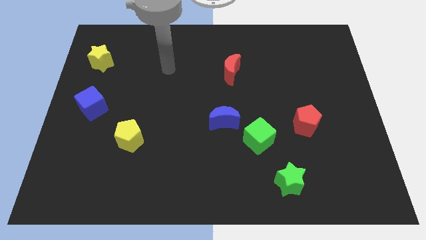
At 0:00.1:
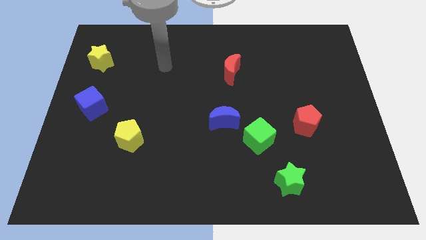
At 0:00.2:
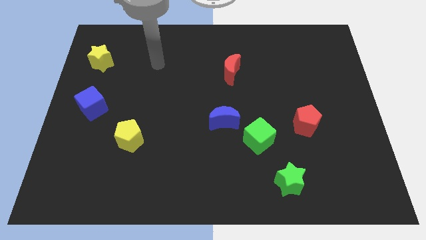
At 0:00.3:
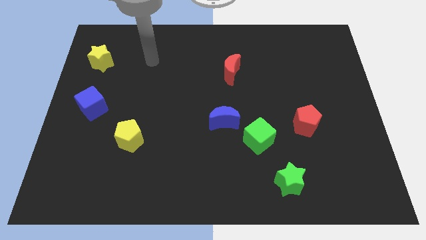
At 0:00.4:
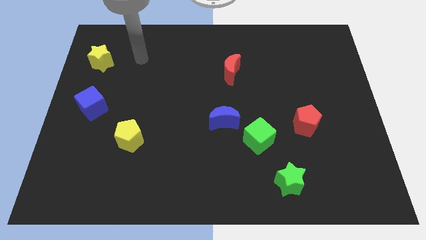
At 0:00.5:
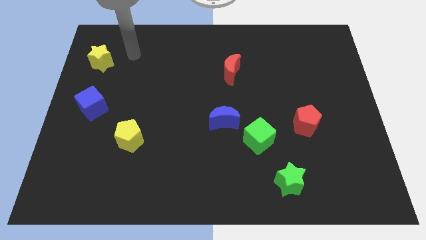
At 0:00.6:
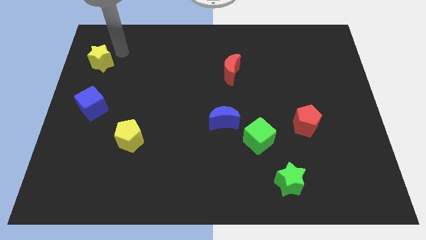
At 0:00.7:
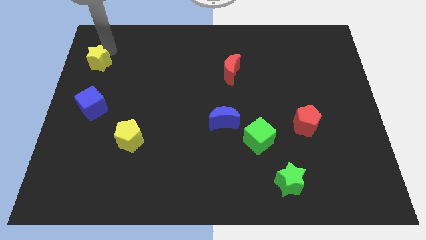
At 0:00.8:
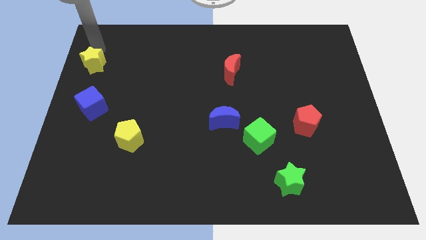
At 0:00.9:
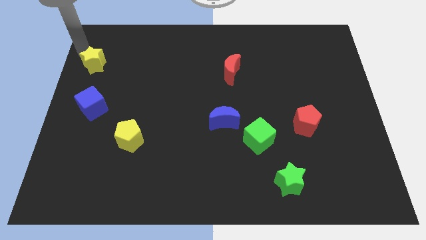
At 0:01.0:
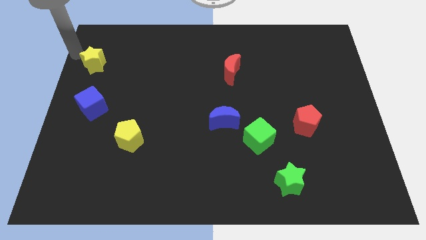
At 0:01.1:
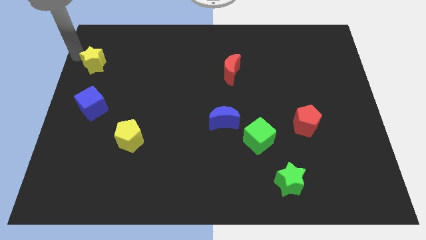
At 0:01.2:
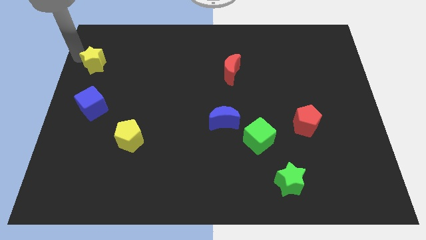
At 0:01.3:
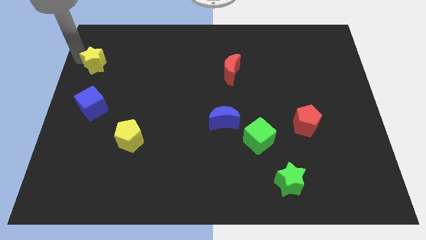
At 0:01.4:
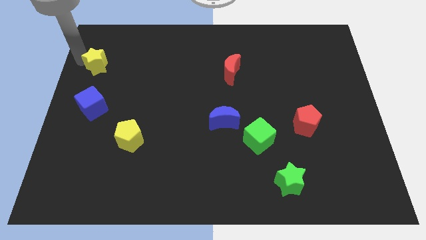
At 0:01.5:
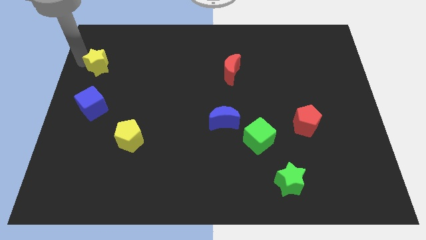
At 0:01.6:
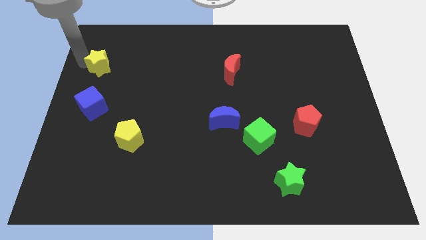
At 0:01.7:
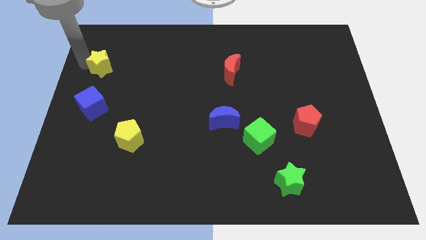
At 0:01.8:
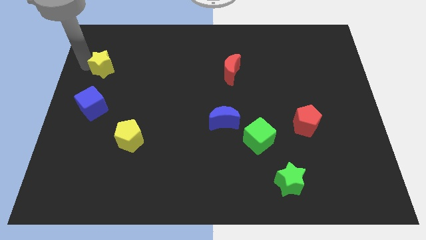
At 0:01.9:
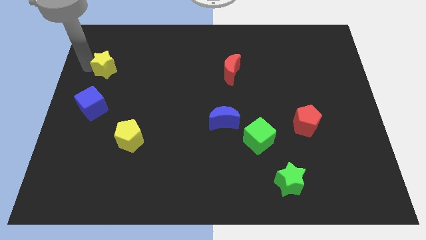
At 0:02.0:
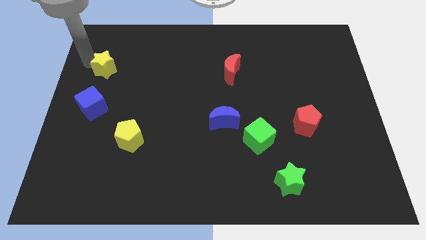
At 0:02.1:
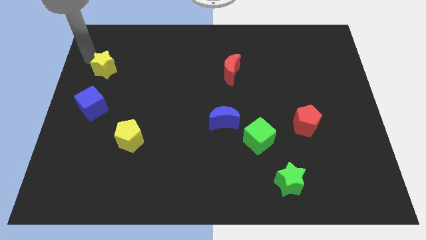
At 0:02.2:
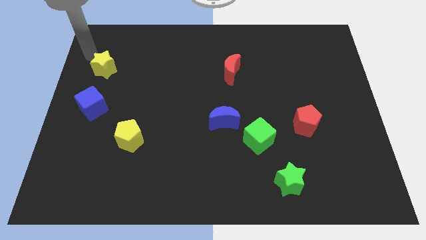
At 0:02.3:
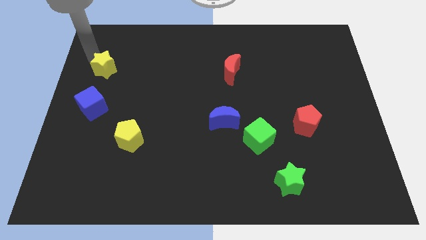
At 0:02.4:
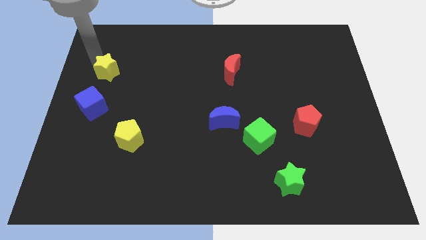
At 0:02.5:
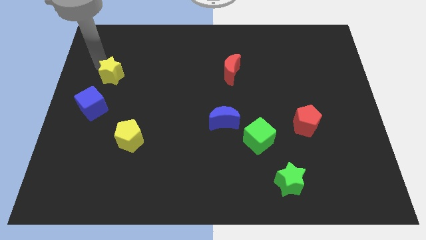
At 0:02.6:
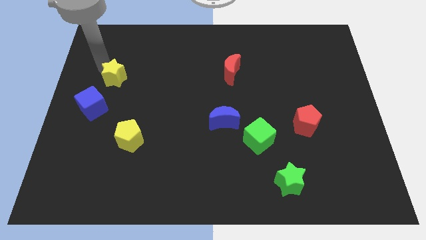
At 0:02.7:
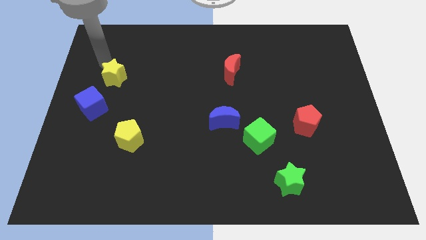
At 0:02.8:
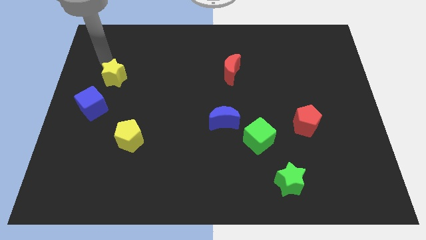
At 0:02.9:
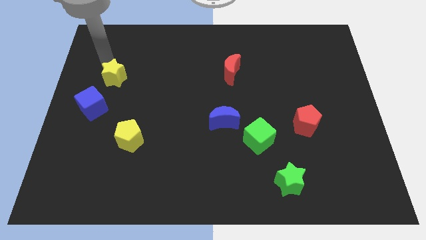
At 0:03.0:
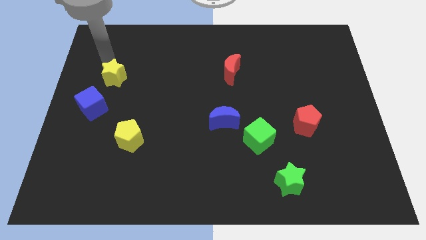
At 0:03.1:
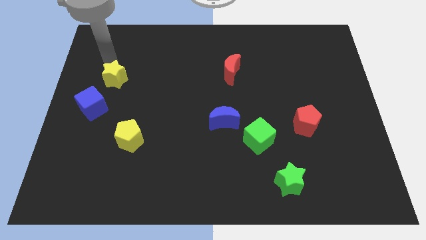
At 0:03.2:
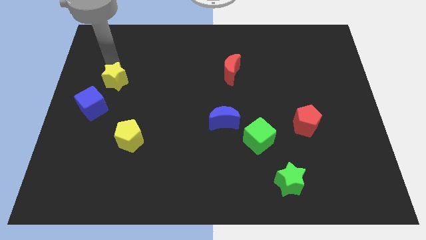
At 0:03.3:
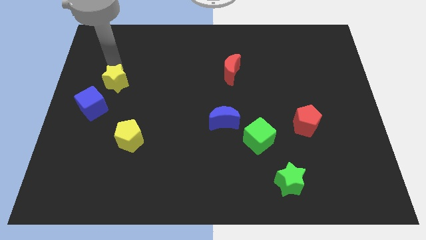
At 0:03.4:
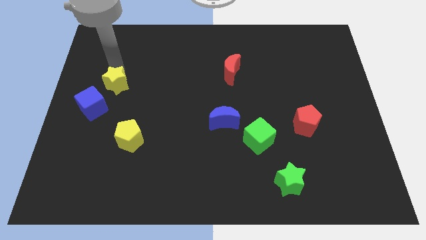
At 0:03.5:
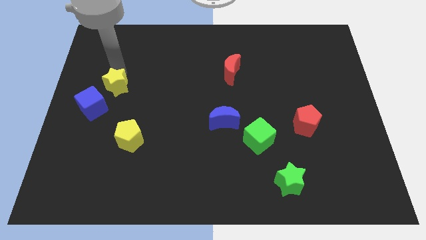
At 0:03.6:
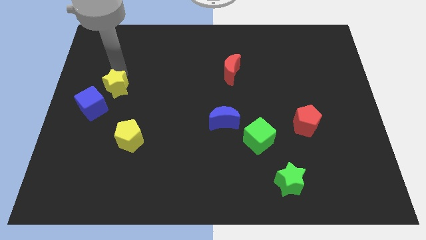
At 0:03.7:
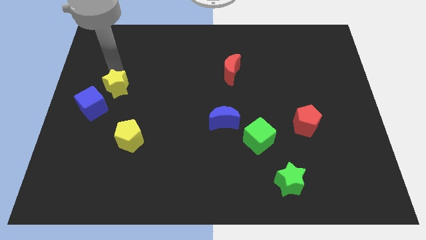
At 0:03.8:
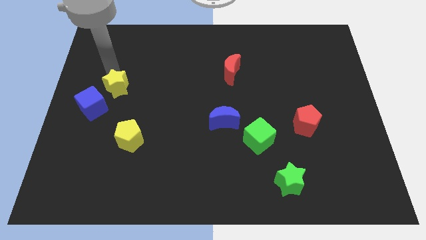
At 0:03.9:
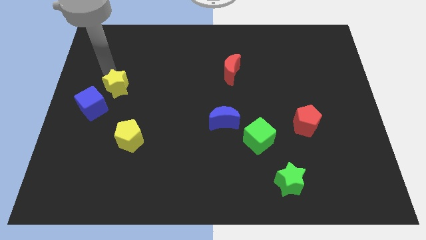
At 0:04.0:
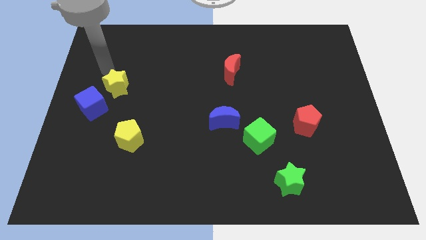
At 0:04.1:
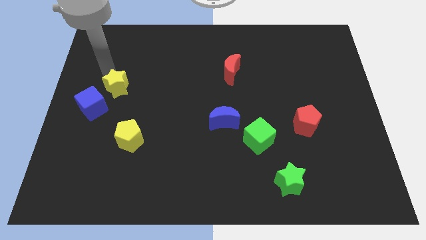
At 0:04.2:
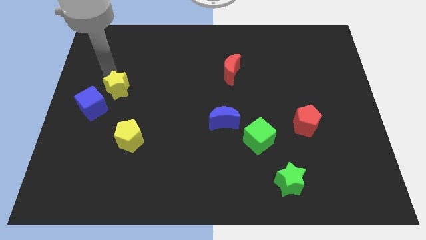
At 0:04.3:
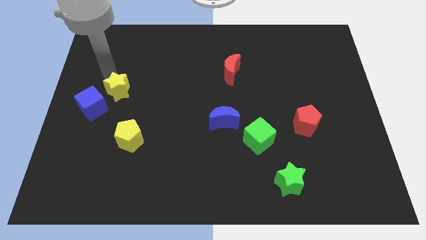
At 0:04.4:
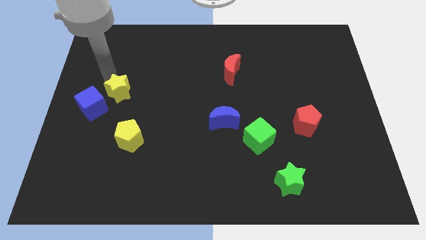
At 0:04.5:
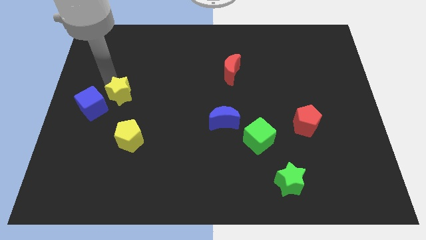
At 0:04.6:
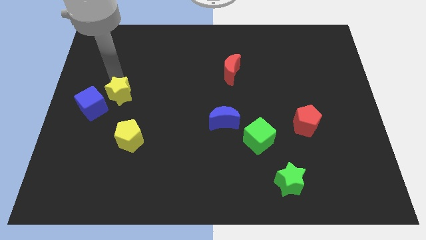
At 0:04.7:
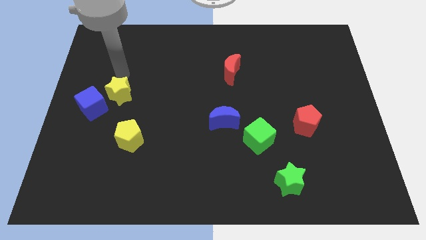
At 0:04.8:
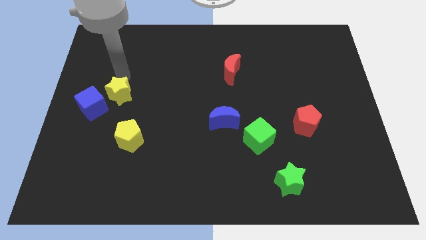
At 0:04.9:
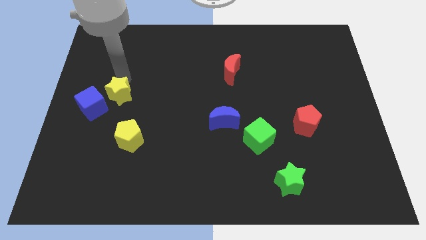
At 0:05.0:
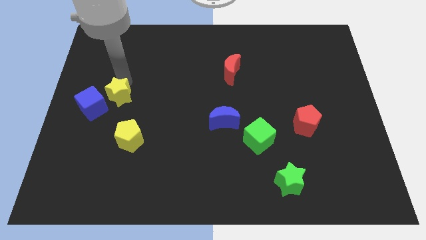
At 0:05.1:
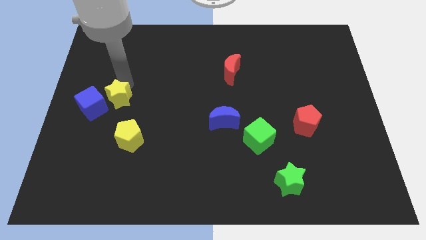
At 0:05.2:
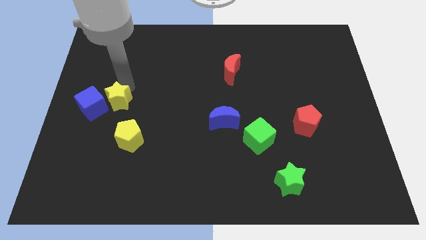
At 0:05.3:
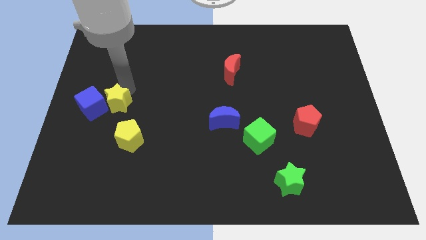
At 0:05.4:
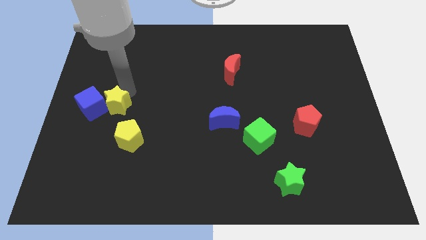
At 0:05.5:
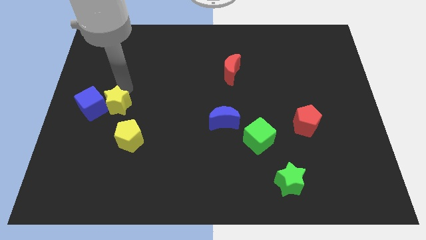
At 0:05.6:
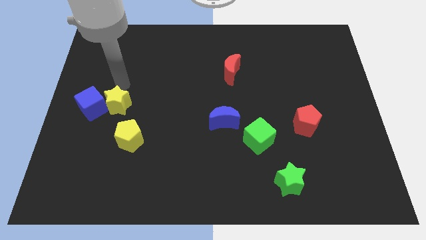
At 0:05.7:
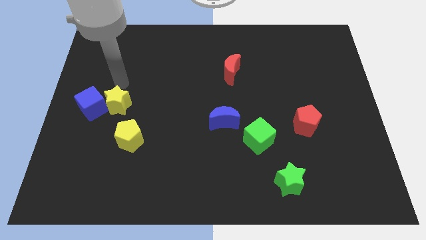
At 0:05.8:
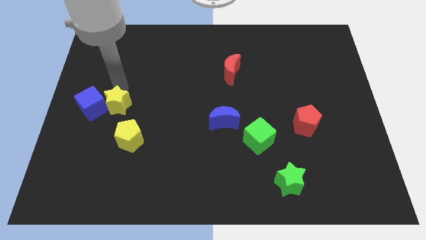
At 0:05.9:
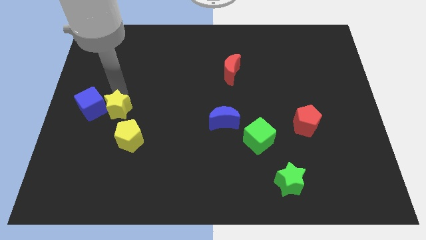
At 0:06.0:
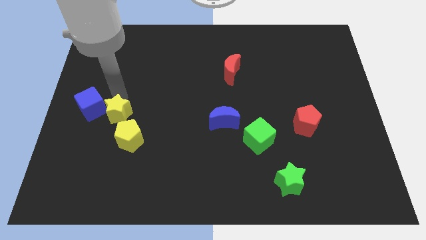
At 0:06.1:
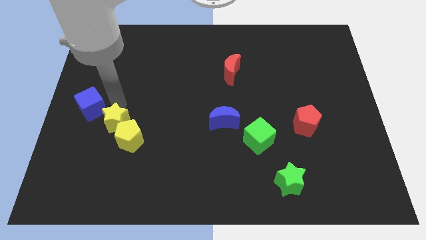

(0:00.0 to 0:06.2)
slide the yellow star towards the yellow pentagon

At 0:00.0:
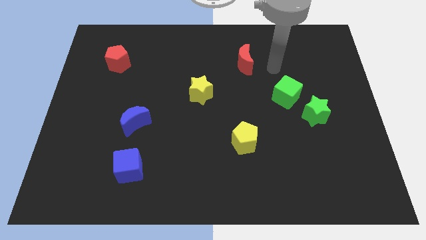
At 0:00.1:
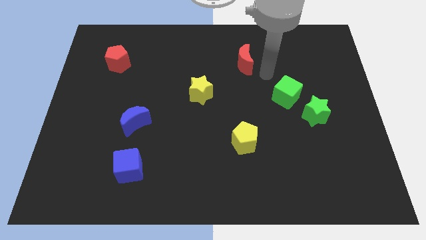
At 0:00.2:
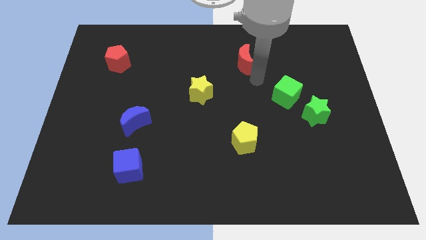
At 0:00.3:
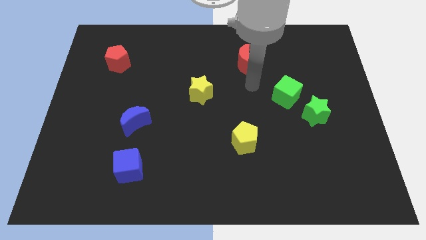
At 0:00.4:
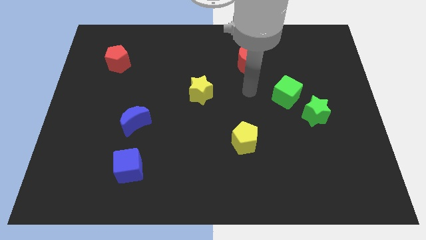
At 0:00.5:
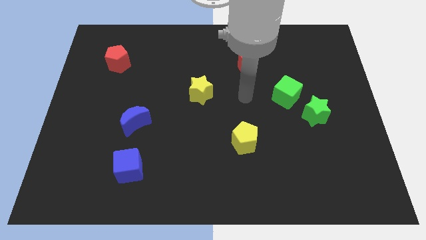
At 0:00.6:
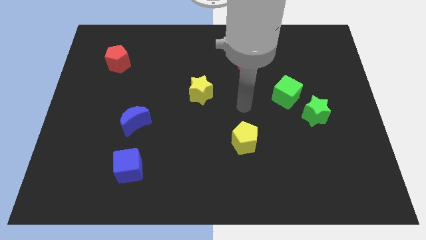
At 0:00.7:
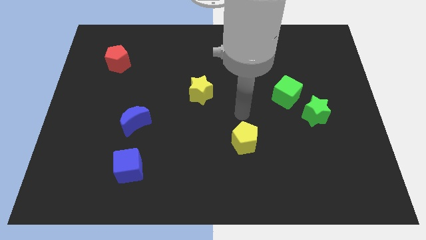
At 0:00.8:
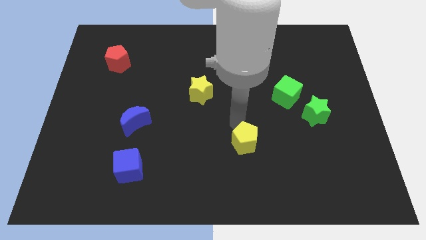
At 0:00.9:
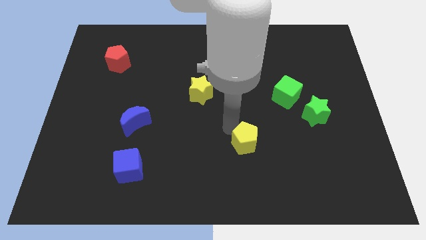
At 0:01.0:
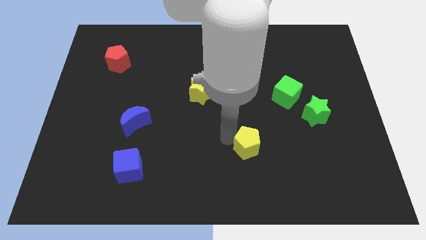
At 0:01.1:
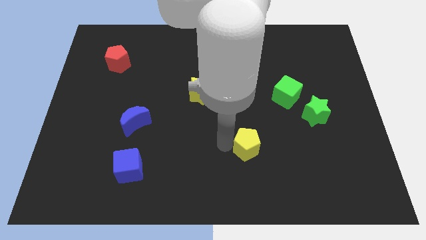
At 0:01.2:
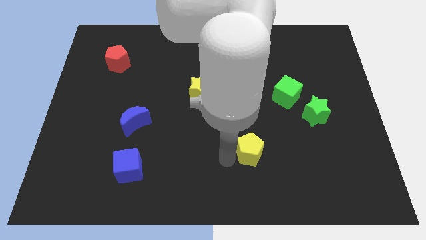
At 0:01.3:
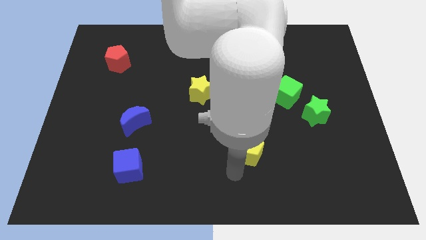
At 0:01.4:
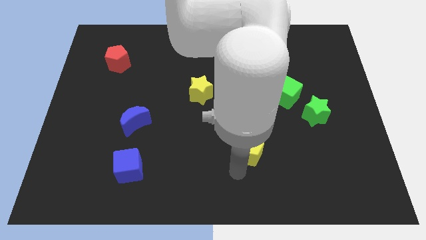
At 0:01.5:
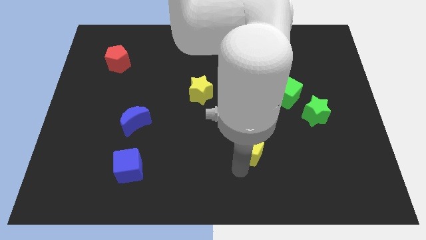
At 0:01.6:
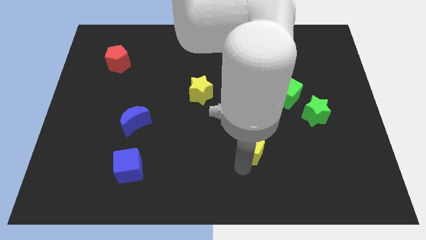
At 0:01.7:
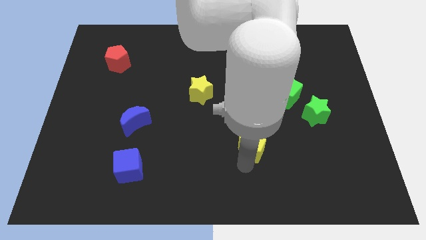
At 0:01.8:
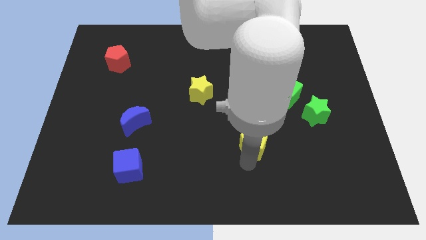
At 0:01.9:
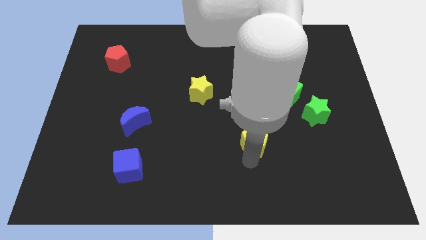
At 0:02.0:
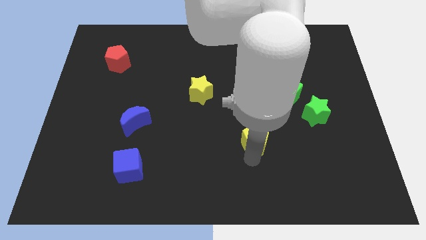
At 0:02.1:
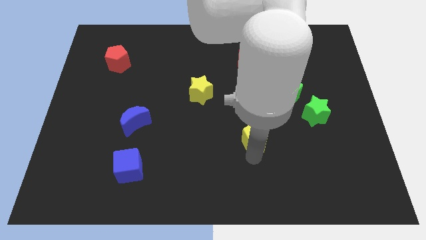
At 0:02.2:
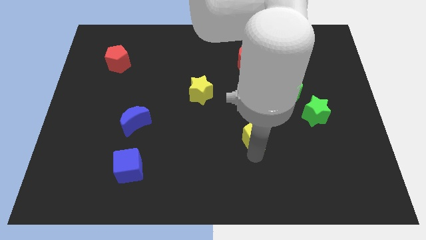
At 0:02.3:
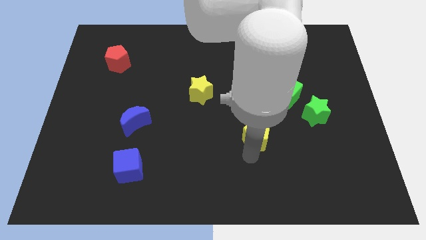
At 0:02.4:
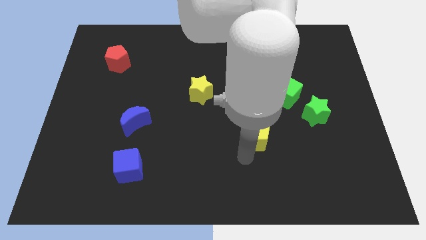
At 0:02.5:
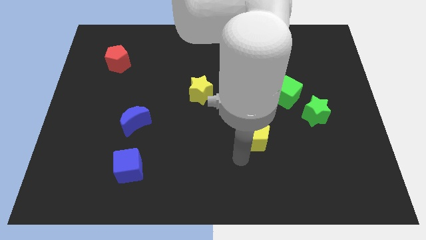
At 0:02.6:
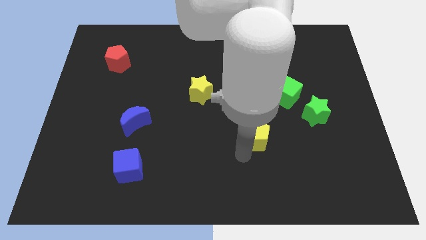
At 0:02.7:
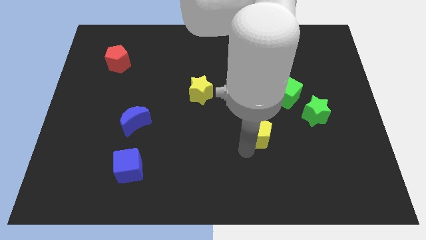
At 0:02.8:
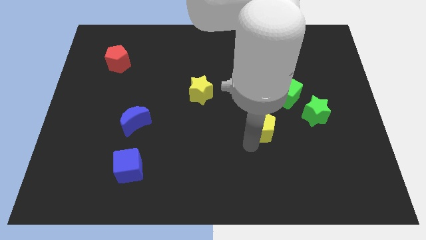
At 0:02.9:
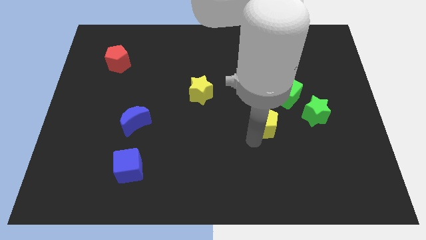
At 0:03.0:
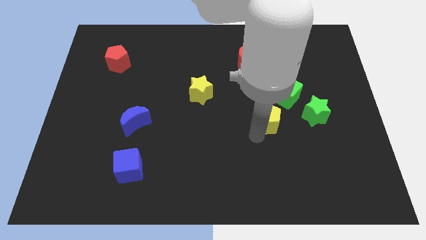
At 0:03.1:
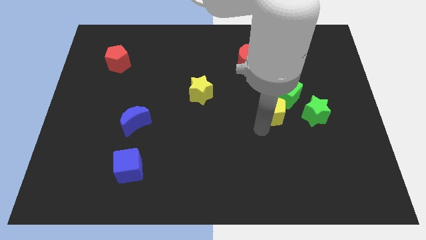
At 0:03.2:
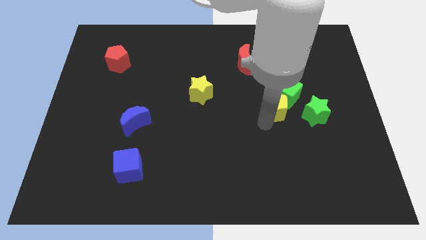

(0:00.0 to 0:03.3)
slide the yellow pentagon next to the green cube
